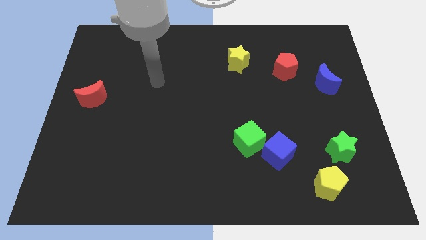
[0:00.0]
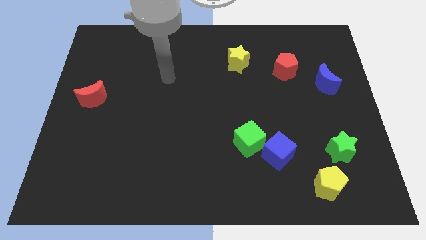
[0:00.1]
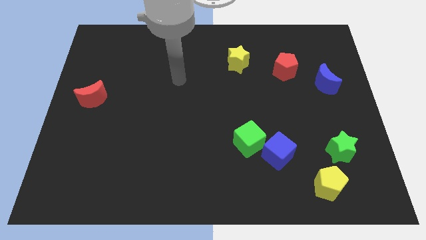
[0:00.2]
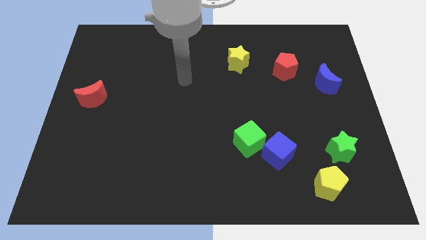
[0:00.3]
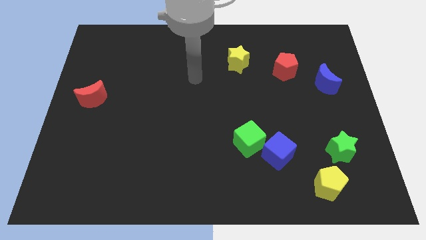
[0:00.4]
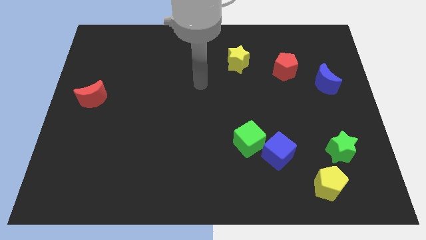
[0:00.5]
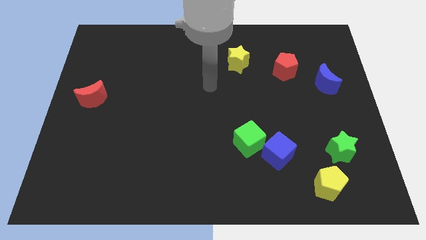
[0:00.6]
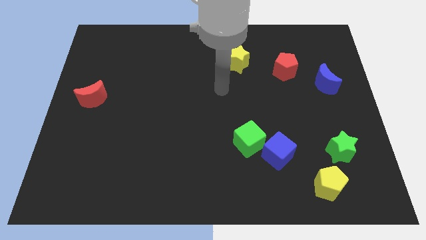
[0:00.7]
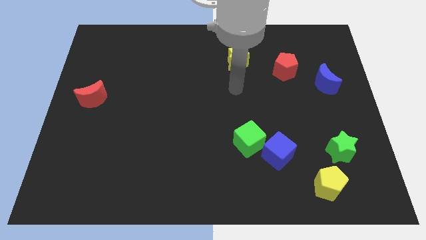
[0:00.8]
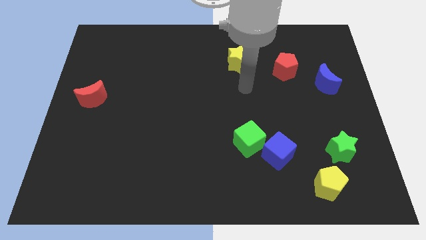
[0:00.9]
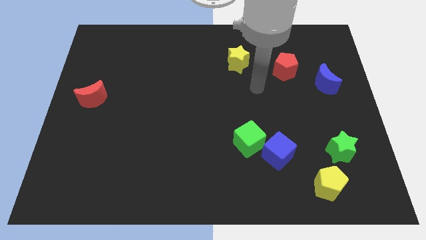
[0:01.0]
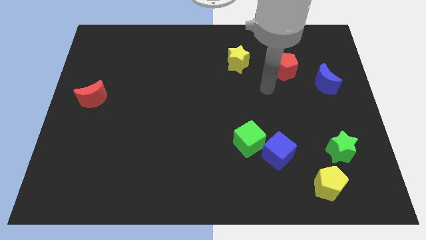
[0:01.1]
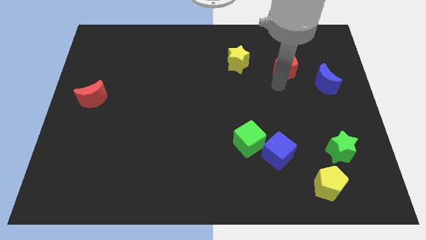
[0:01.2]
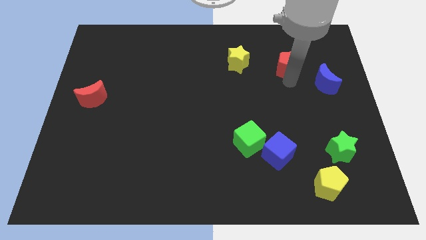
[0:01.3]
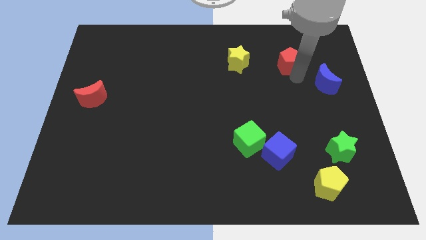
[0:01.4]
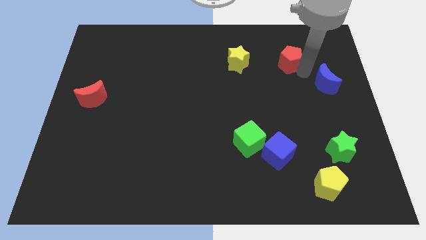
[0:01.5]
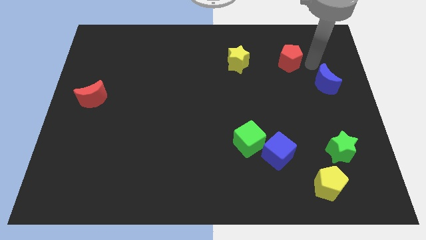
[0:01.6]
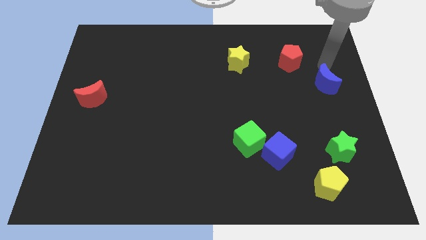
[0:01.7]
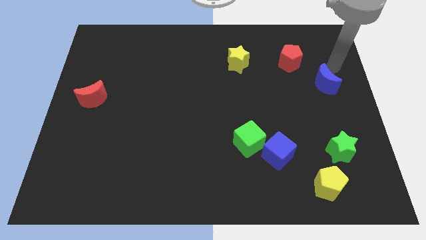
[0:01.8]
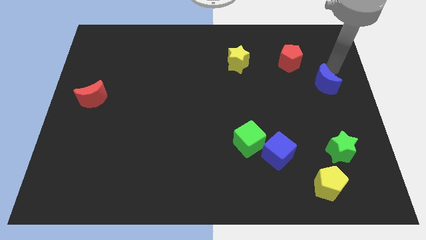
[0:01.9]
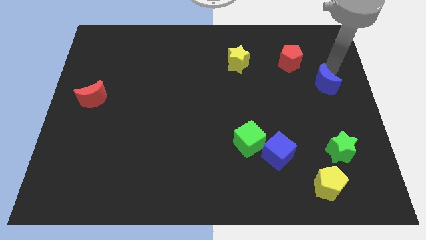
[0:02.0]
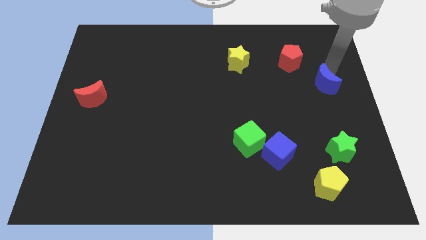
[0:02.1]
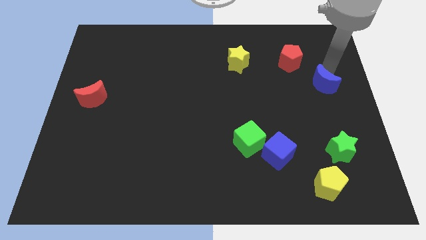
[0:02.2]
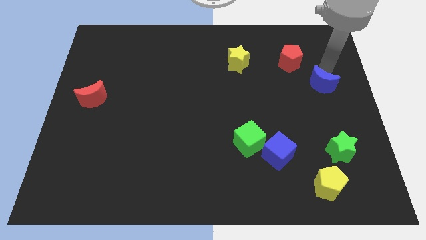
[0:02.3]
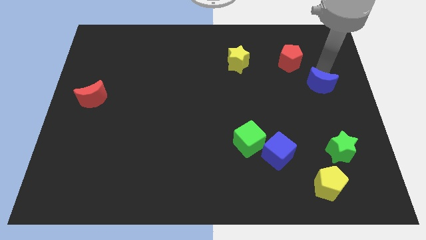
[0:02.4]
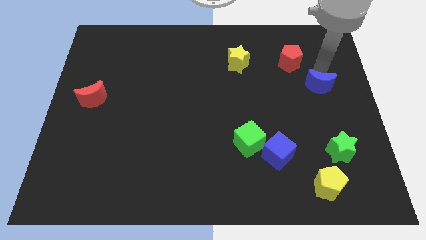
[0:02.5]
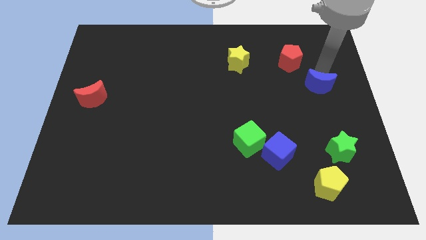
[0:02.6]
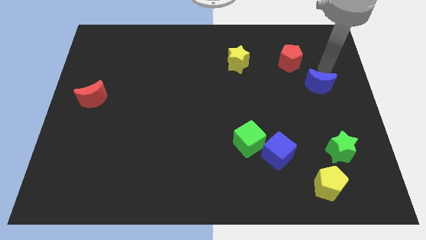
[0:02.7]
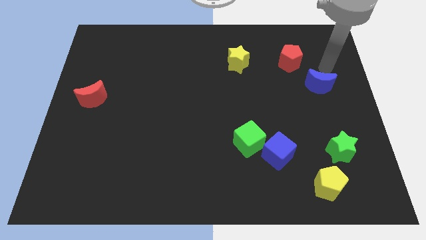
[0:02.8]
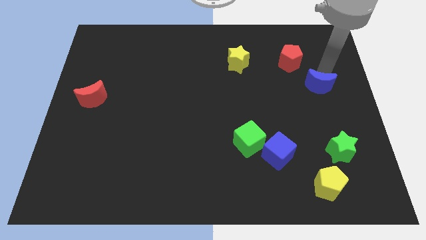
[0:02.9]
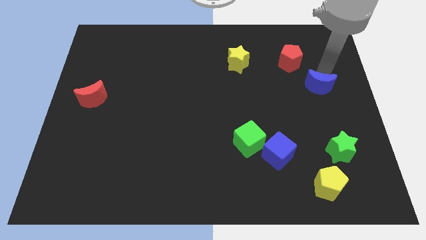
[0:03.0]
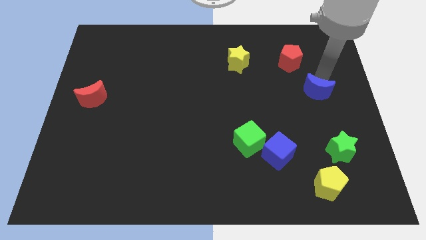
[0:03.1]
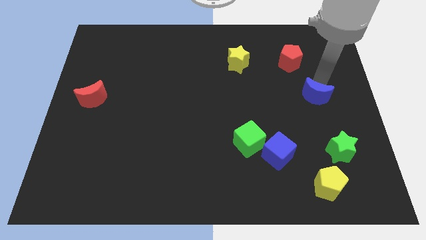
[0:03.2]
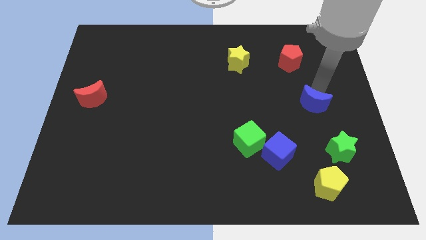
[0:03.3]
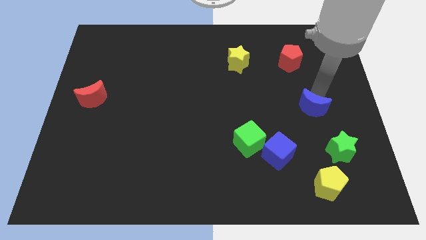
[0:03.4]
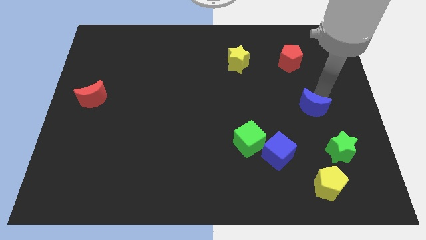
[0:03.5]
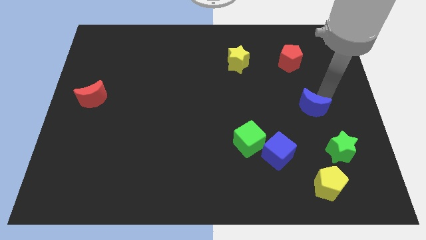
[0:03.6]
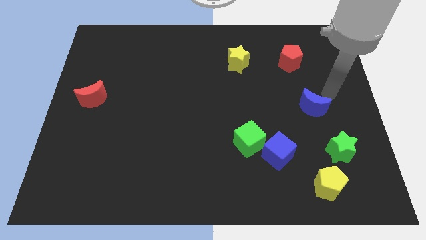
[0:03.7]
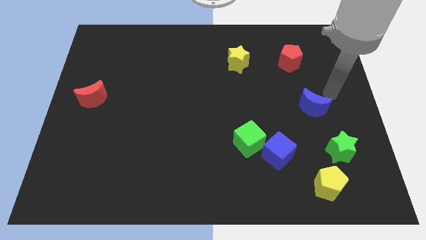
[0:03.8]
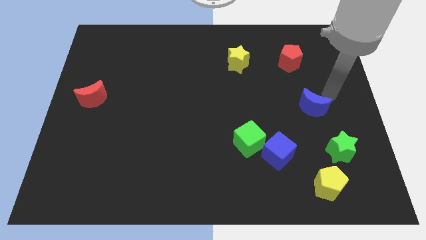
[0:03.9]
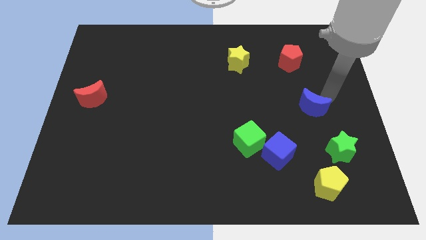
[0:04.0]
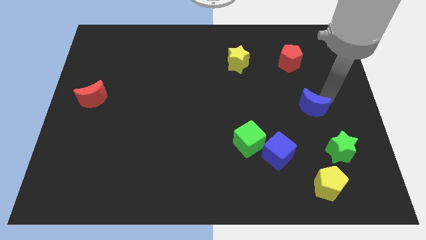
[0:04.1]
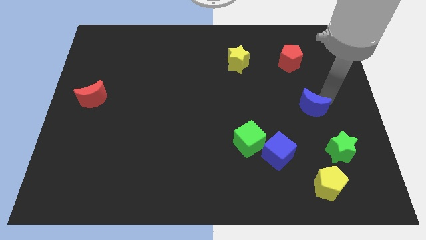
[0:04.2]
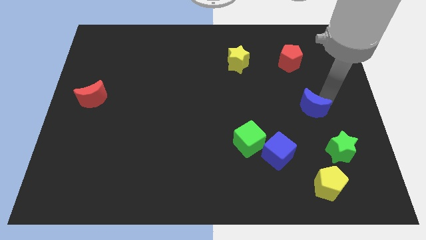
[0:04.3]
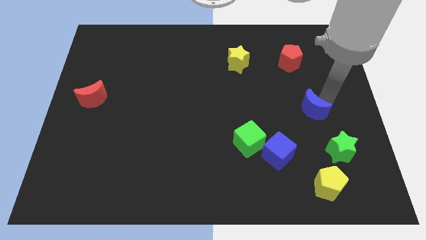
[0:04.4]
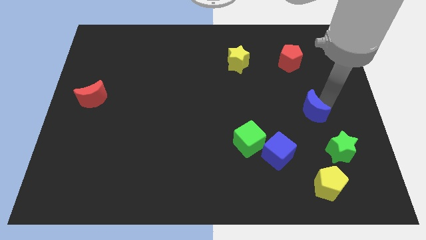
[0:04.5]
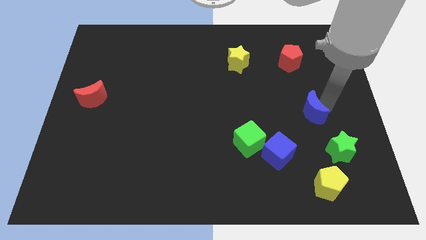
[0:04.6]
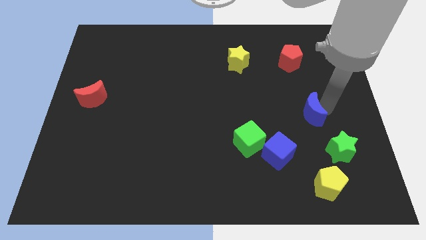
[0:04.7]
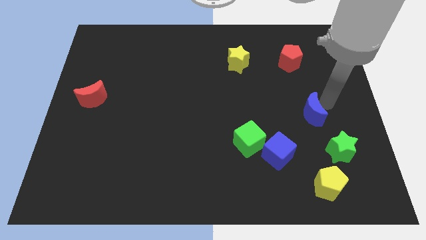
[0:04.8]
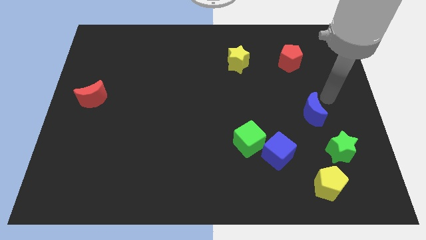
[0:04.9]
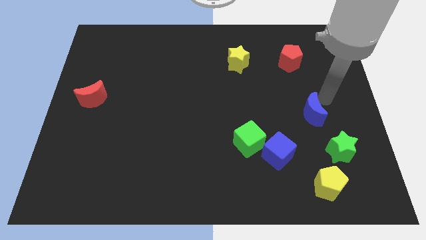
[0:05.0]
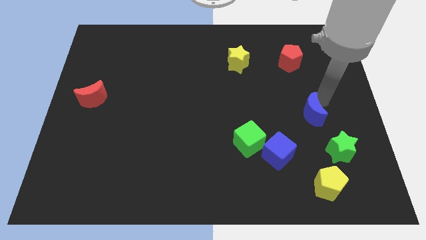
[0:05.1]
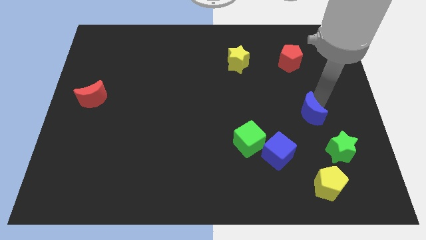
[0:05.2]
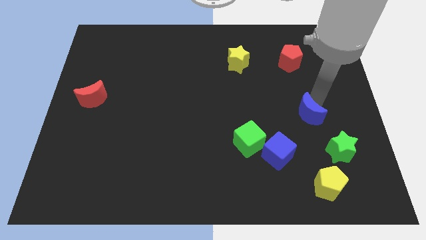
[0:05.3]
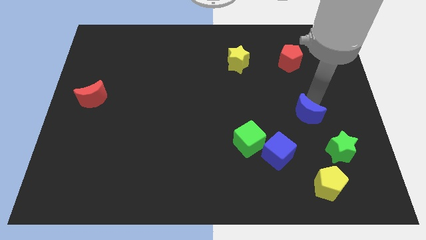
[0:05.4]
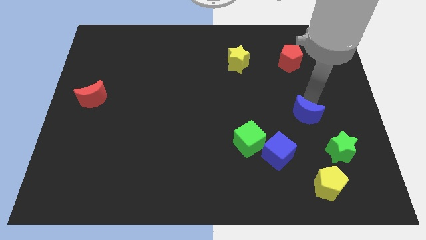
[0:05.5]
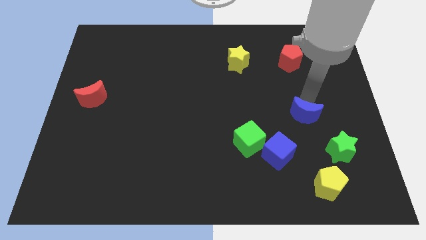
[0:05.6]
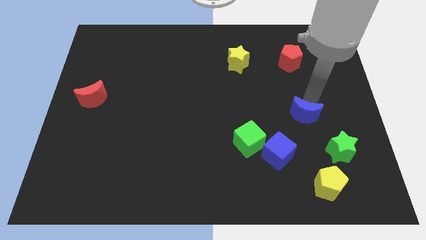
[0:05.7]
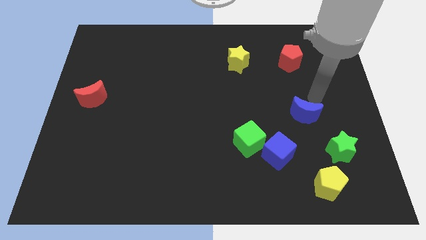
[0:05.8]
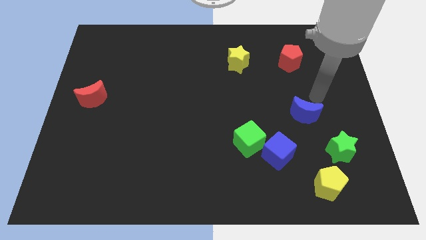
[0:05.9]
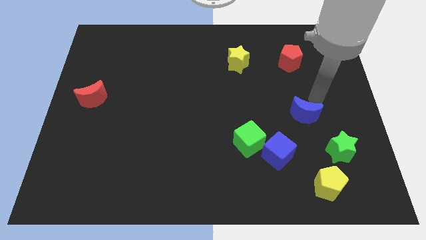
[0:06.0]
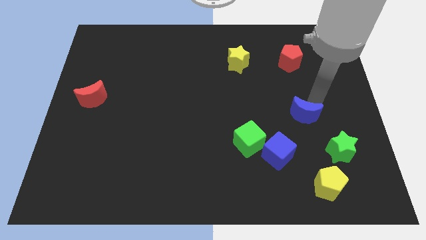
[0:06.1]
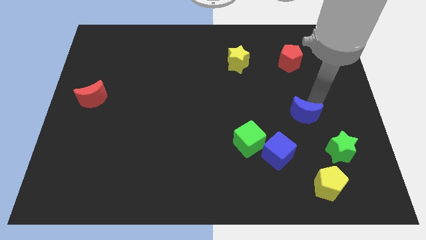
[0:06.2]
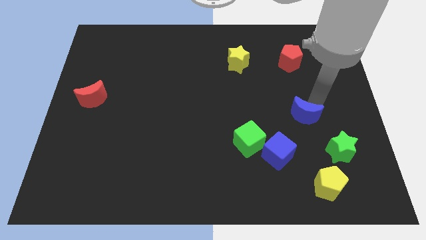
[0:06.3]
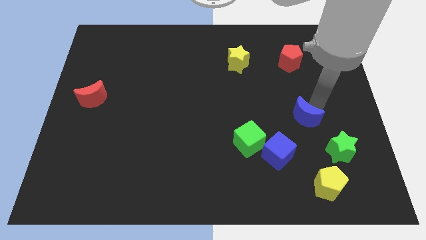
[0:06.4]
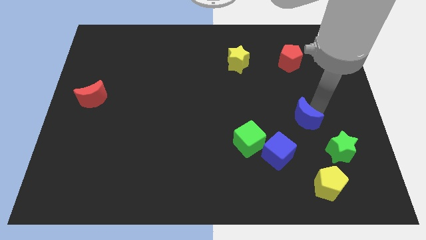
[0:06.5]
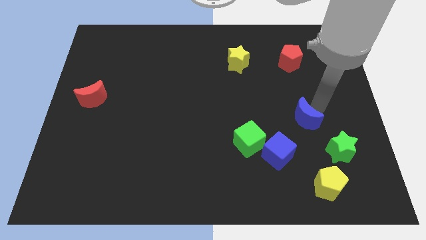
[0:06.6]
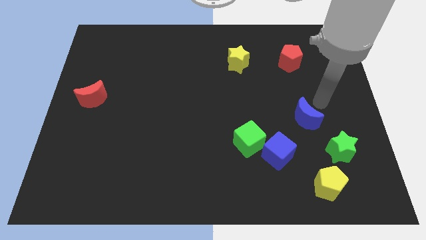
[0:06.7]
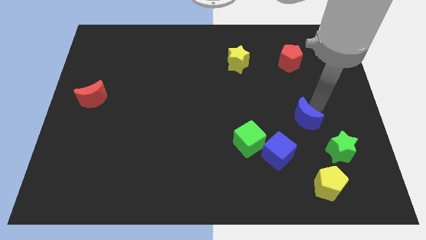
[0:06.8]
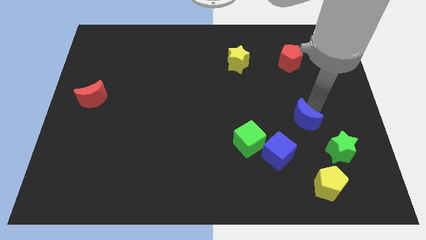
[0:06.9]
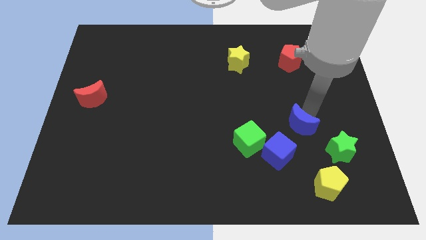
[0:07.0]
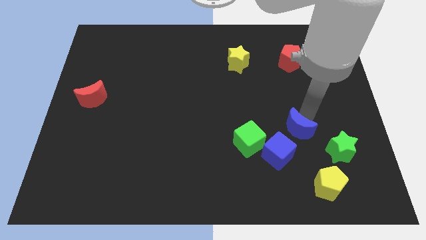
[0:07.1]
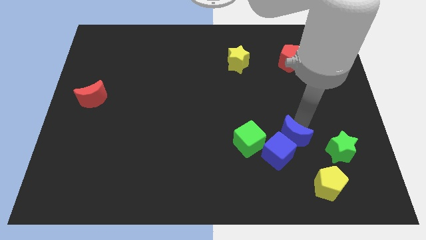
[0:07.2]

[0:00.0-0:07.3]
put the blue moon to the blue cube
